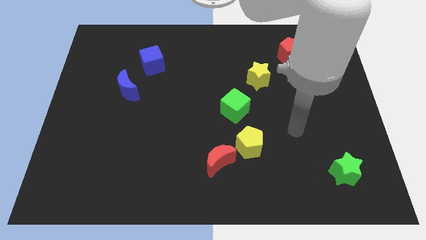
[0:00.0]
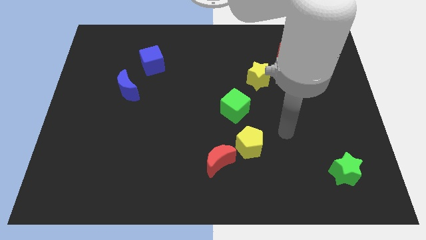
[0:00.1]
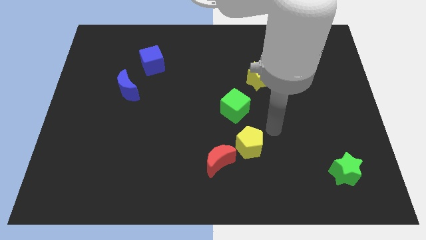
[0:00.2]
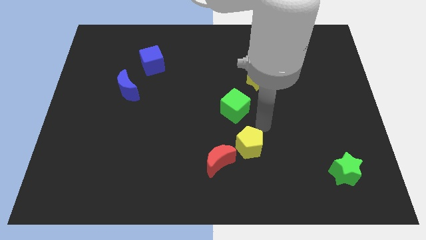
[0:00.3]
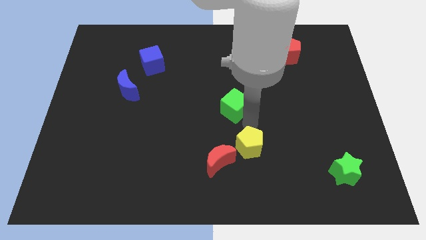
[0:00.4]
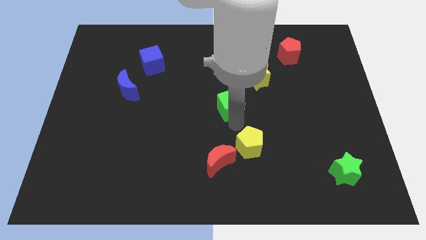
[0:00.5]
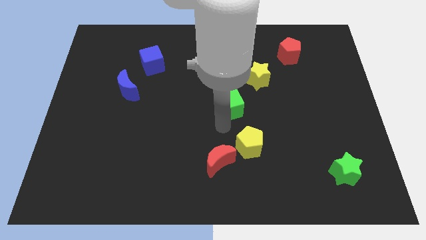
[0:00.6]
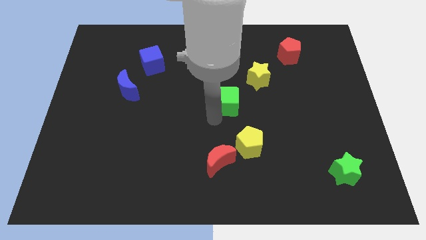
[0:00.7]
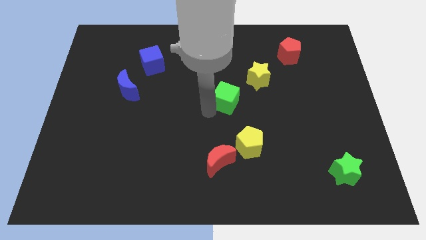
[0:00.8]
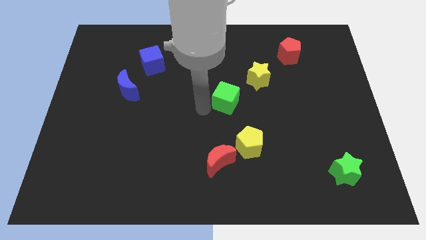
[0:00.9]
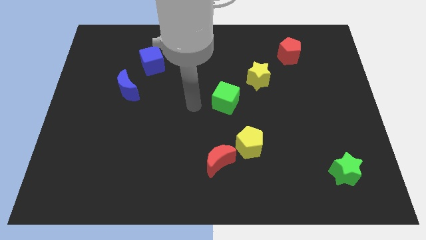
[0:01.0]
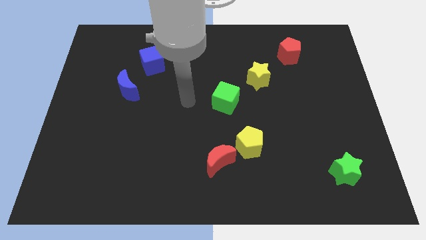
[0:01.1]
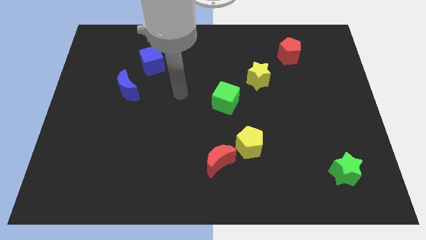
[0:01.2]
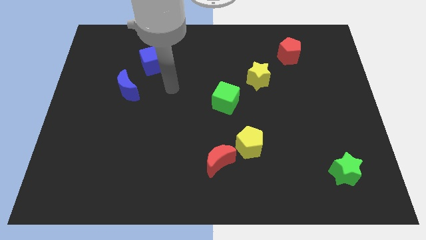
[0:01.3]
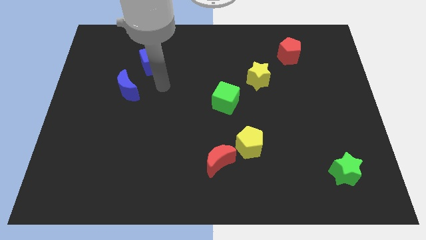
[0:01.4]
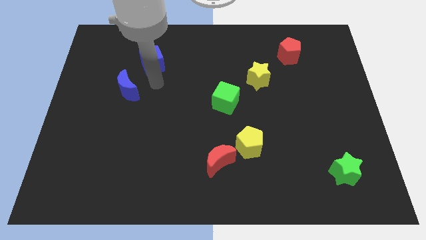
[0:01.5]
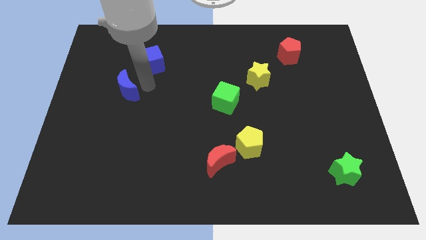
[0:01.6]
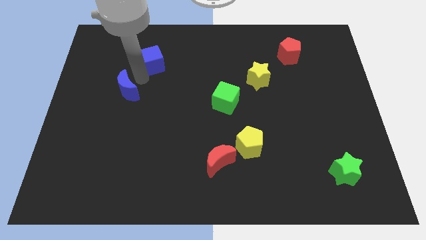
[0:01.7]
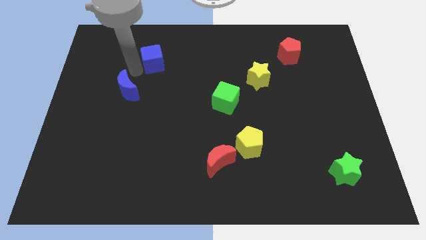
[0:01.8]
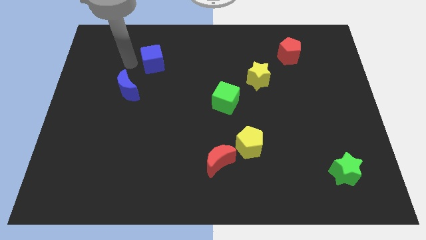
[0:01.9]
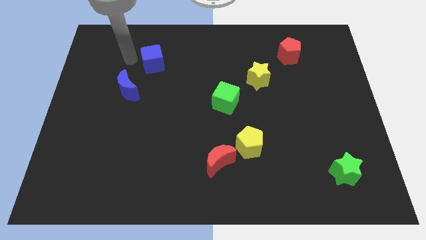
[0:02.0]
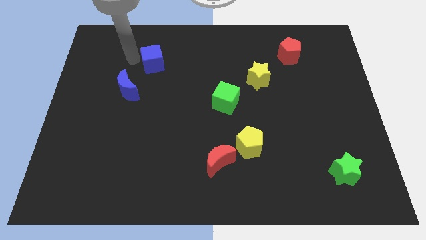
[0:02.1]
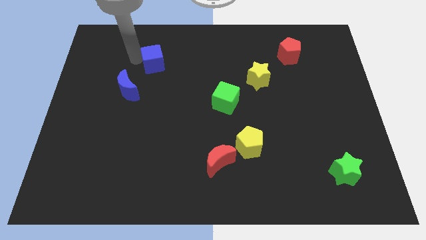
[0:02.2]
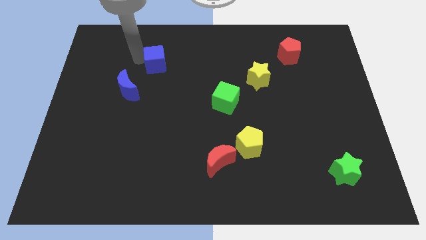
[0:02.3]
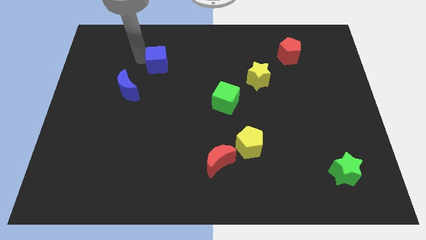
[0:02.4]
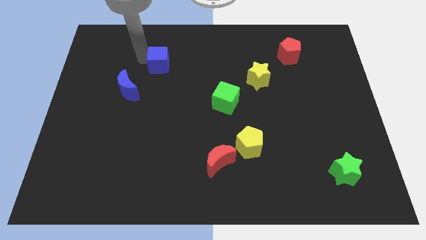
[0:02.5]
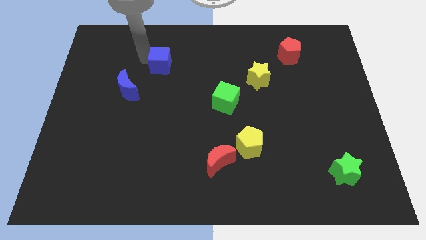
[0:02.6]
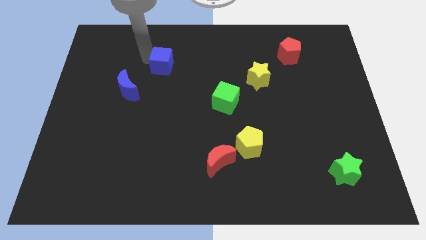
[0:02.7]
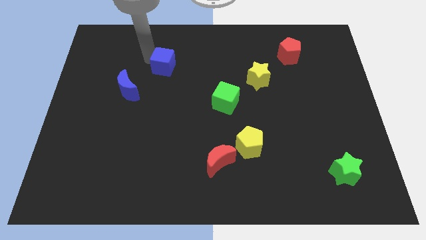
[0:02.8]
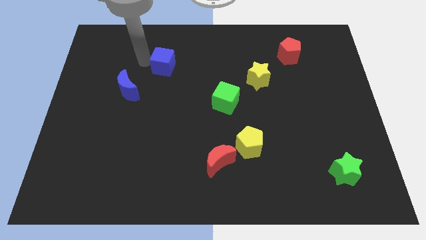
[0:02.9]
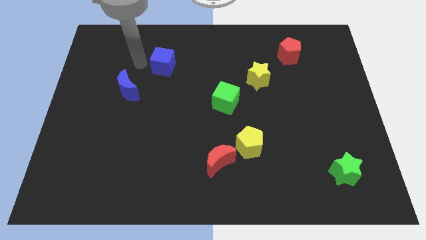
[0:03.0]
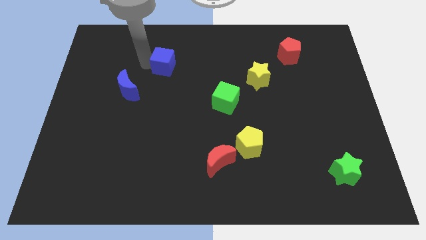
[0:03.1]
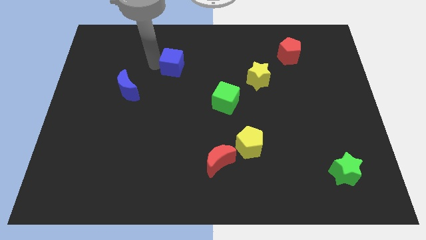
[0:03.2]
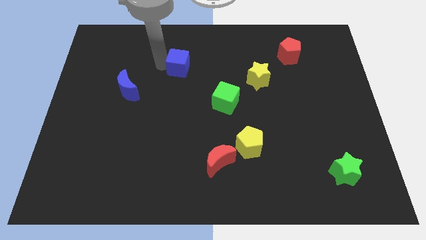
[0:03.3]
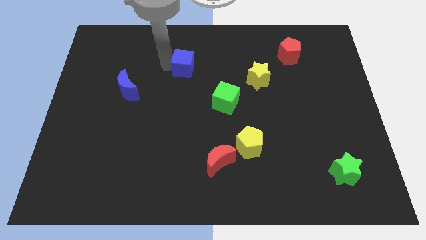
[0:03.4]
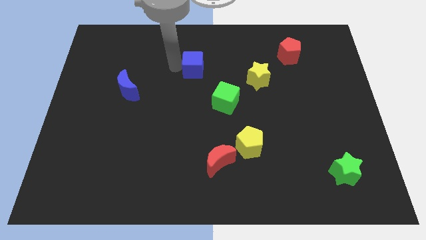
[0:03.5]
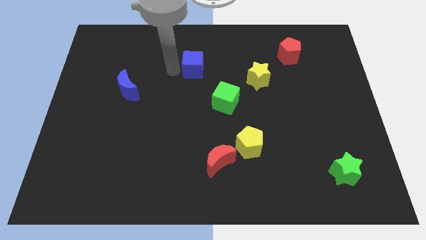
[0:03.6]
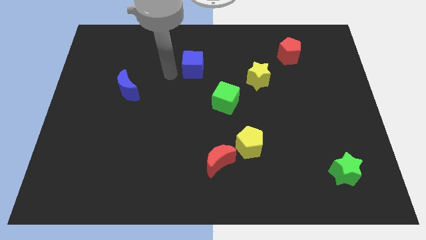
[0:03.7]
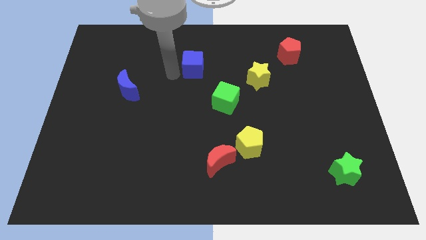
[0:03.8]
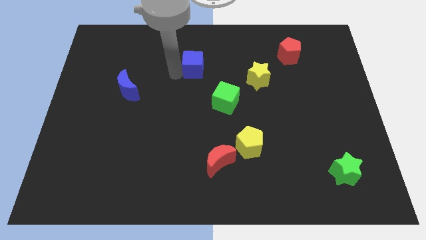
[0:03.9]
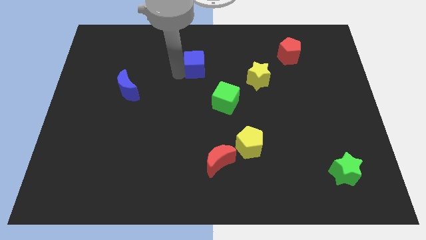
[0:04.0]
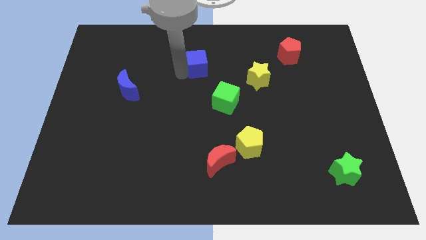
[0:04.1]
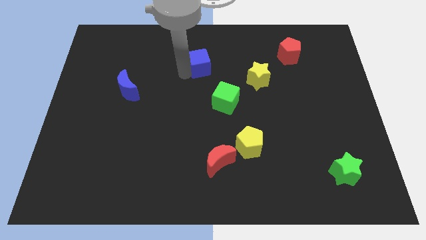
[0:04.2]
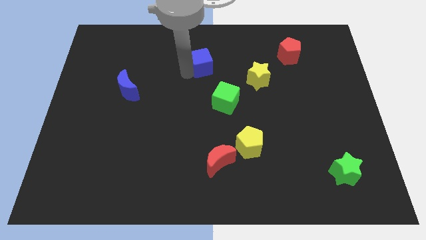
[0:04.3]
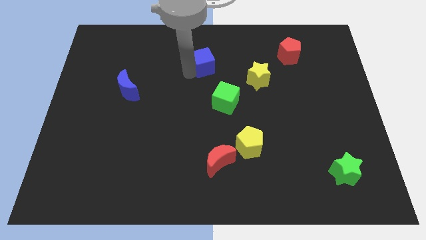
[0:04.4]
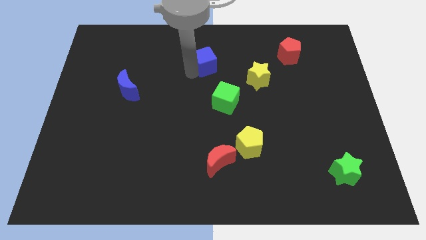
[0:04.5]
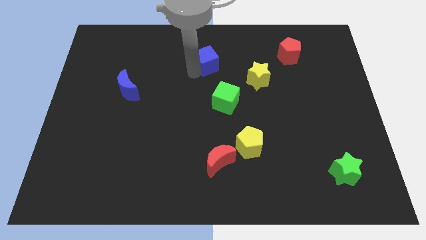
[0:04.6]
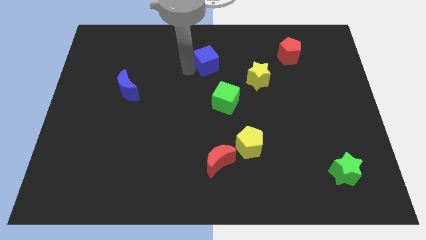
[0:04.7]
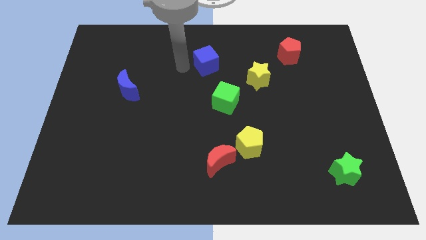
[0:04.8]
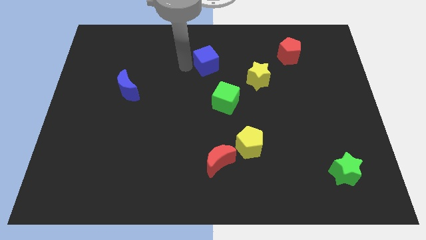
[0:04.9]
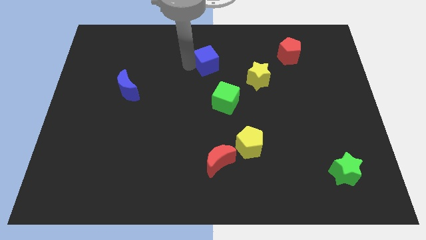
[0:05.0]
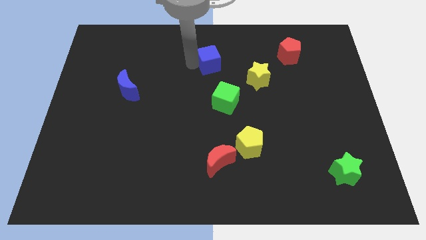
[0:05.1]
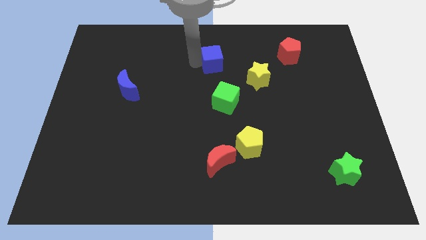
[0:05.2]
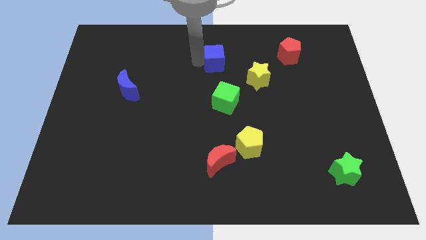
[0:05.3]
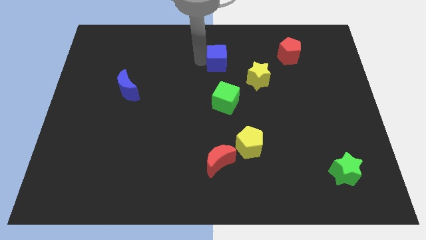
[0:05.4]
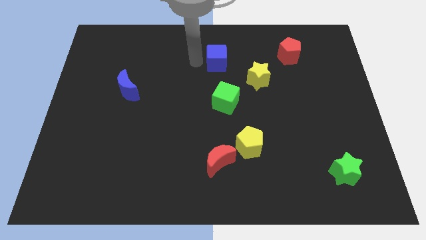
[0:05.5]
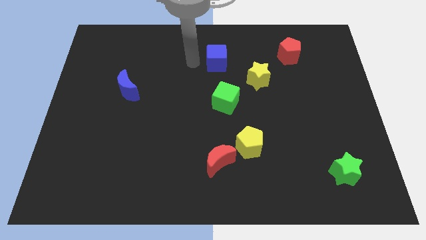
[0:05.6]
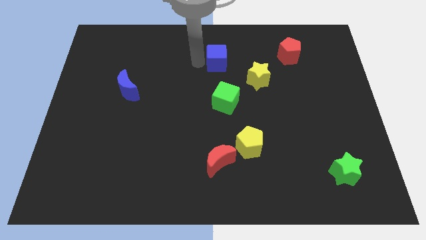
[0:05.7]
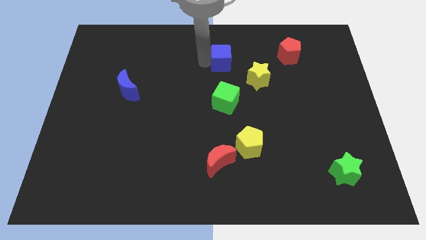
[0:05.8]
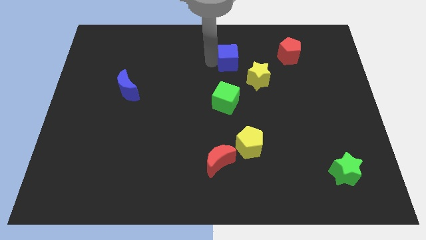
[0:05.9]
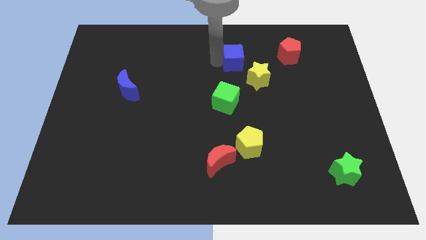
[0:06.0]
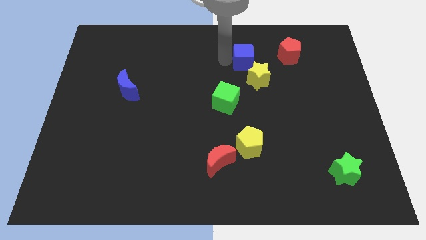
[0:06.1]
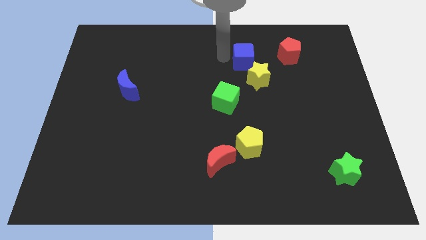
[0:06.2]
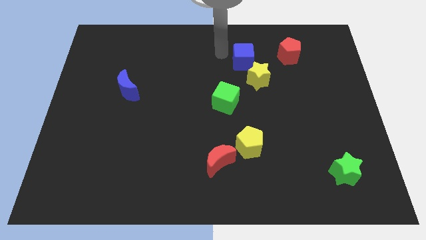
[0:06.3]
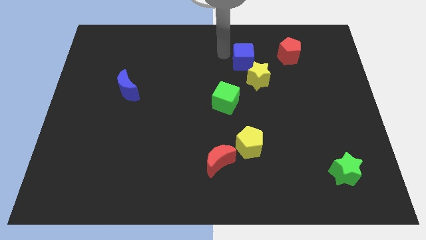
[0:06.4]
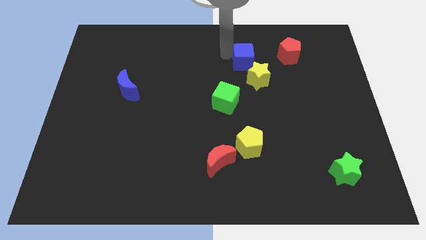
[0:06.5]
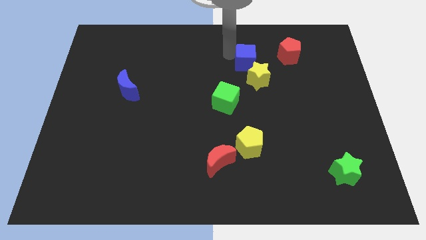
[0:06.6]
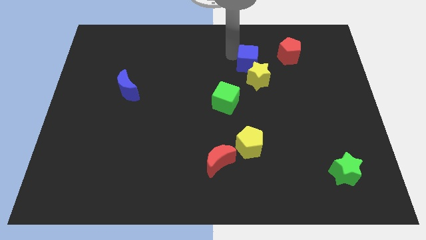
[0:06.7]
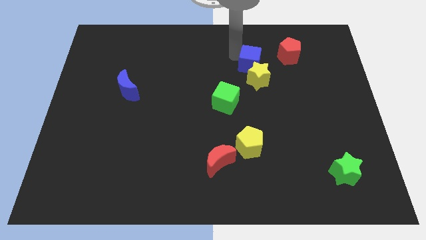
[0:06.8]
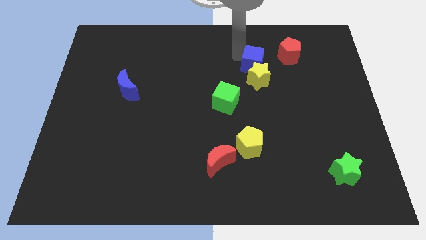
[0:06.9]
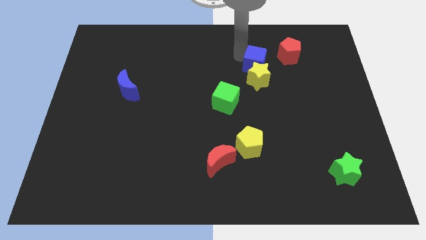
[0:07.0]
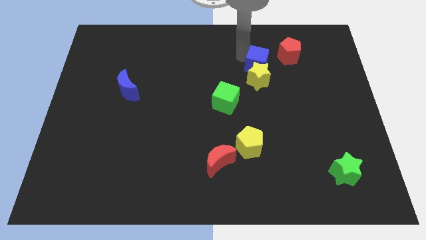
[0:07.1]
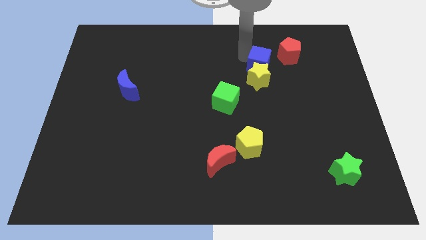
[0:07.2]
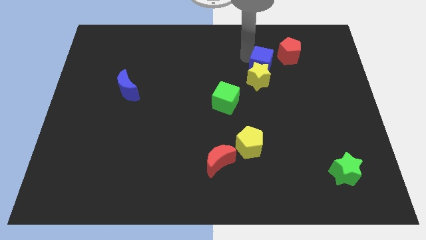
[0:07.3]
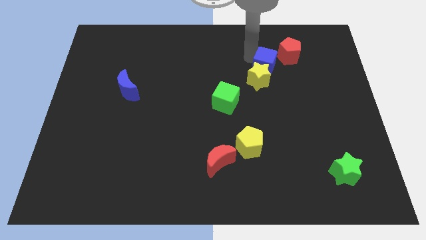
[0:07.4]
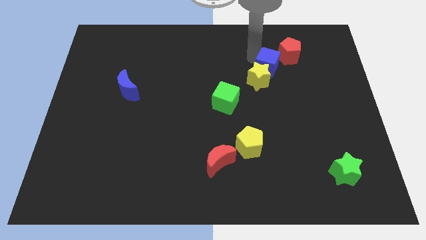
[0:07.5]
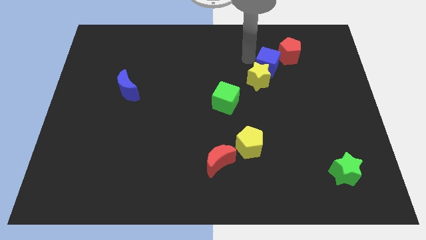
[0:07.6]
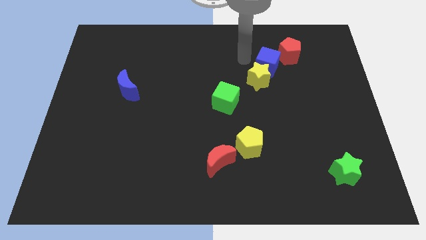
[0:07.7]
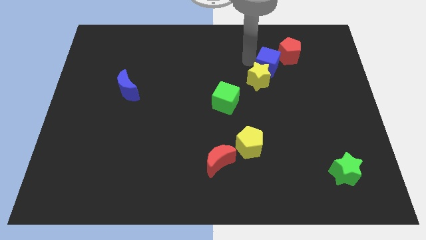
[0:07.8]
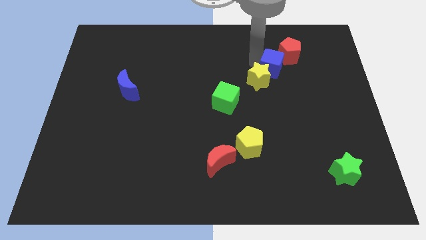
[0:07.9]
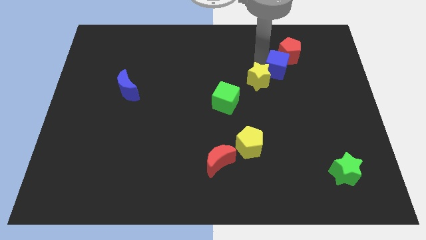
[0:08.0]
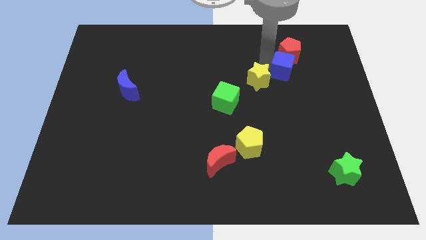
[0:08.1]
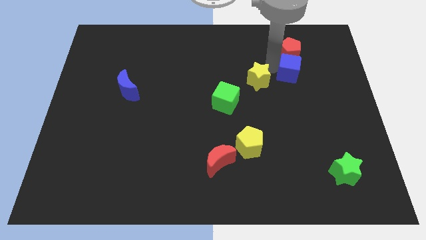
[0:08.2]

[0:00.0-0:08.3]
put the blue cube diagonally down and to the right of the red pentagon
